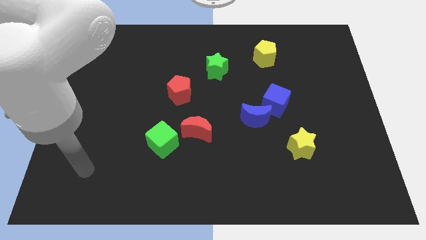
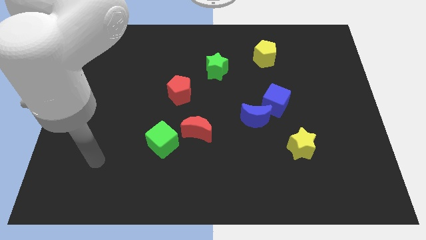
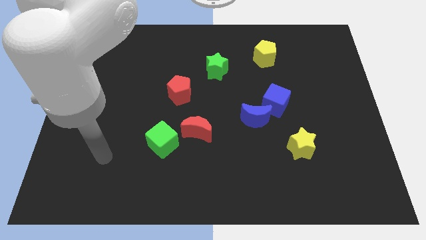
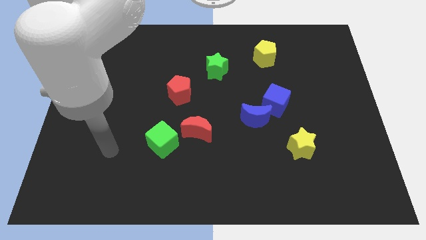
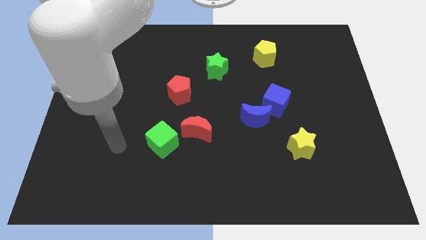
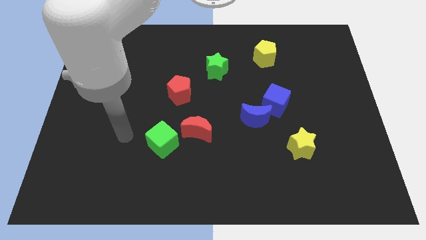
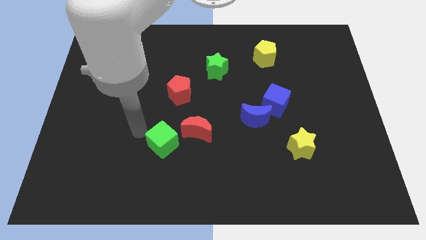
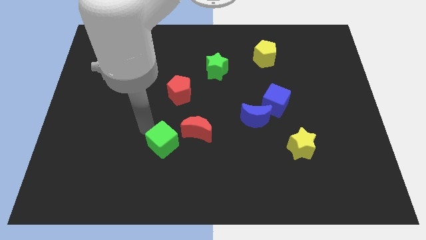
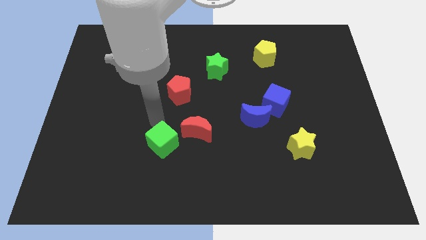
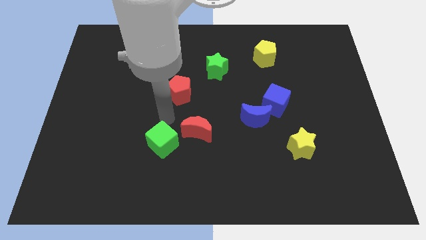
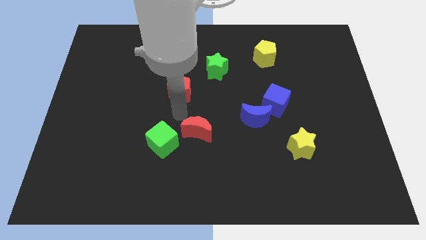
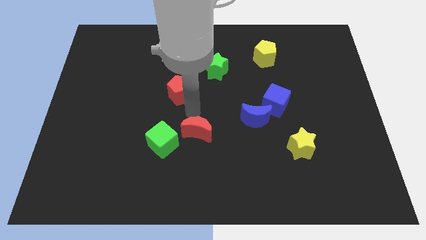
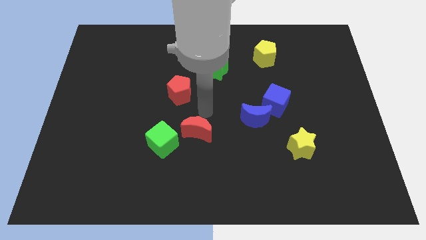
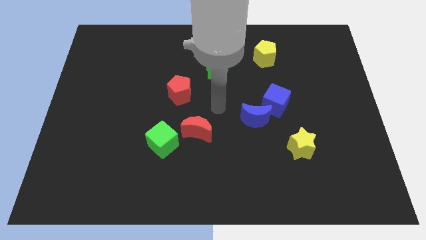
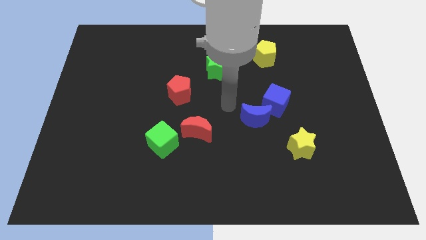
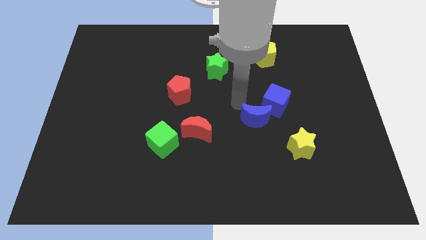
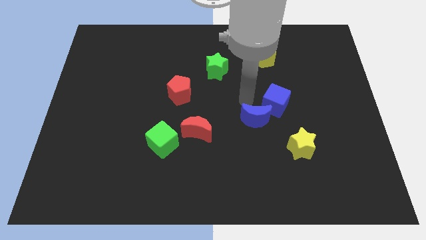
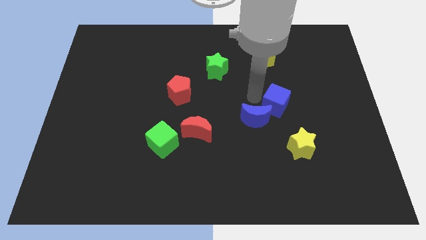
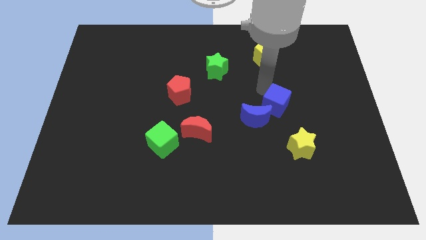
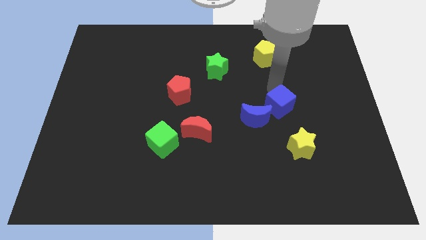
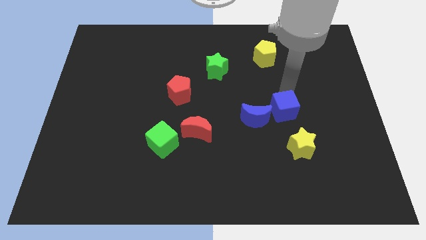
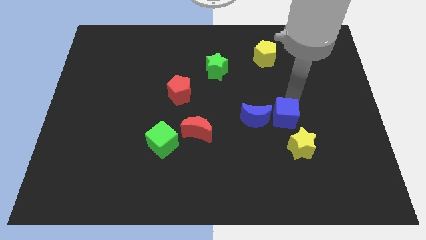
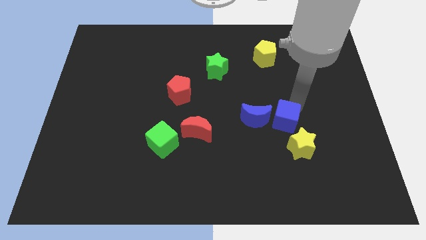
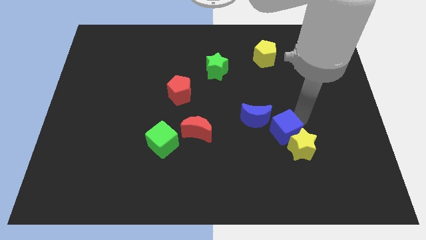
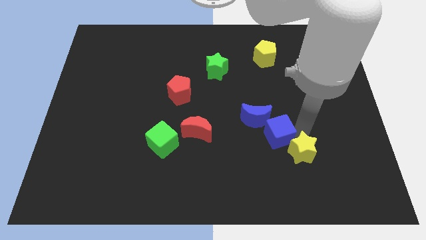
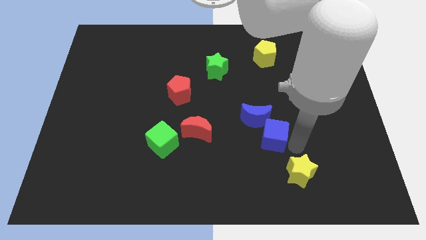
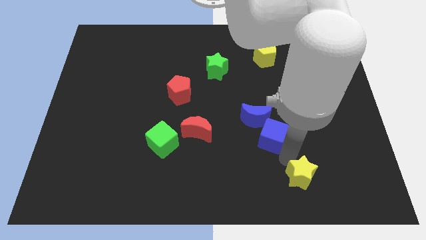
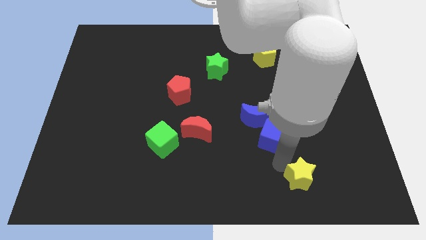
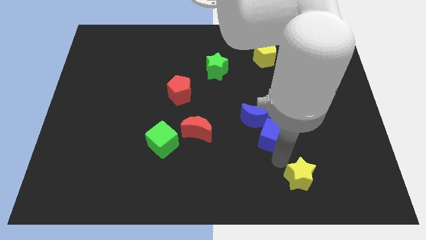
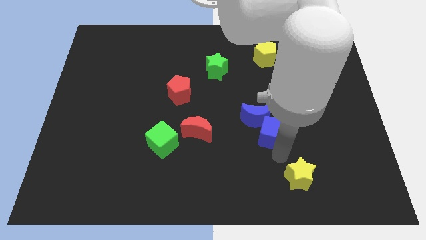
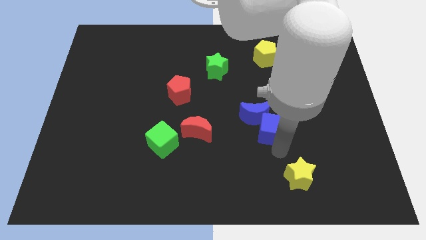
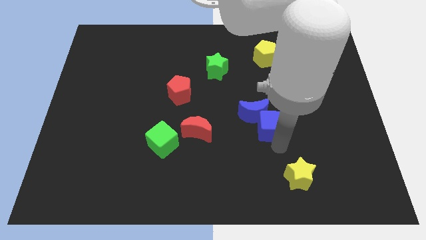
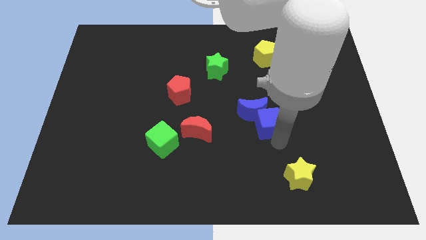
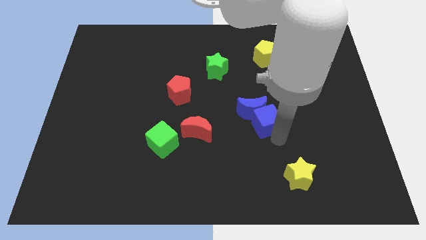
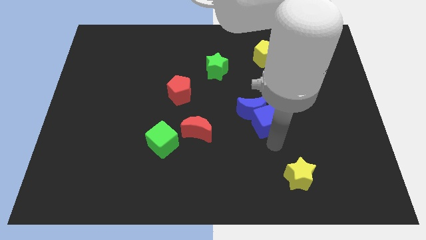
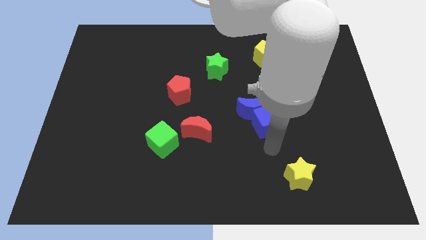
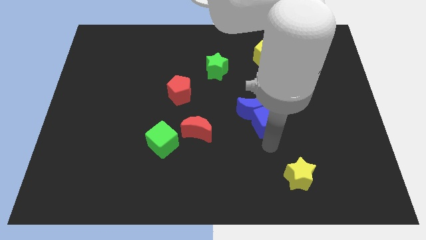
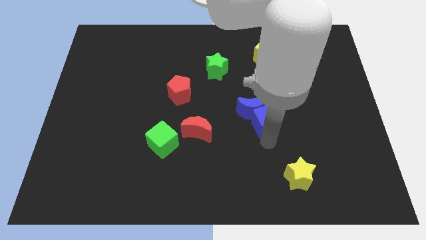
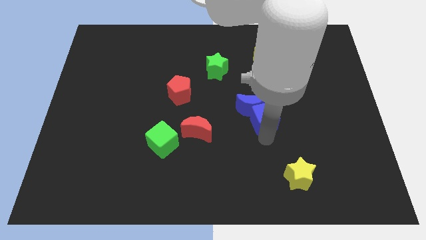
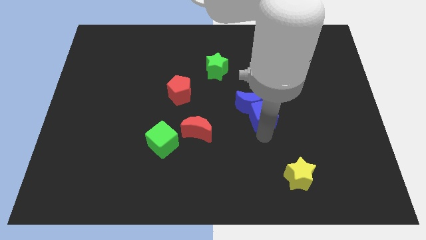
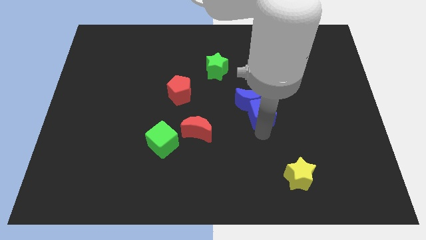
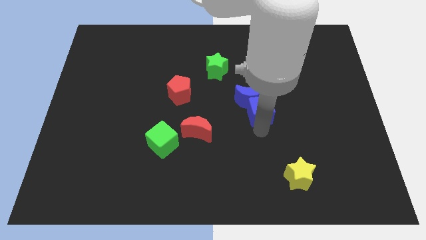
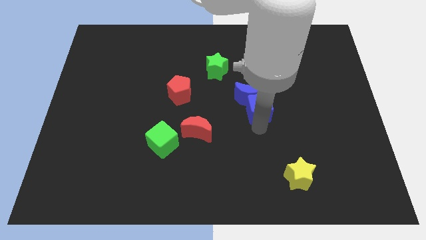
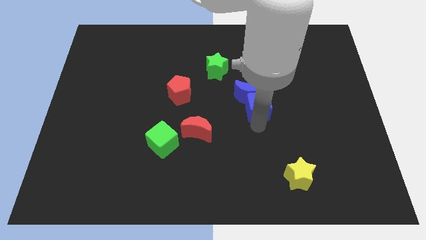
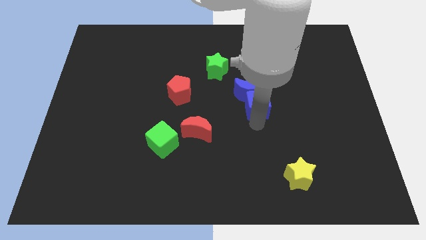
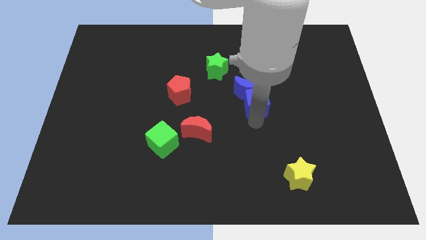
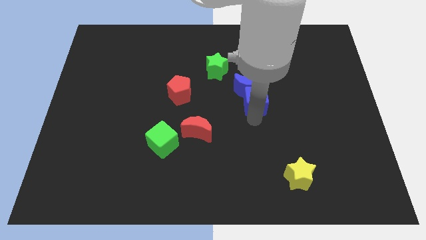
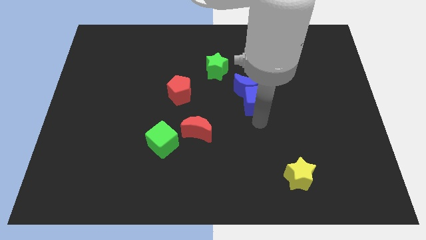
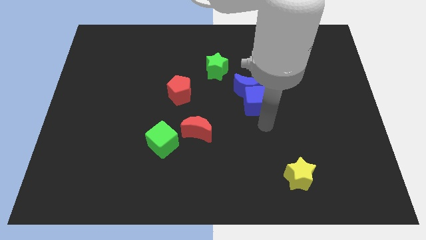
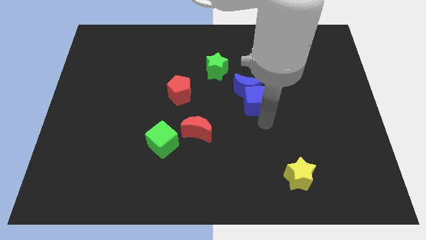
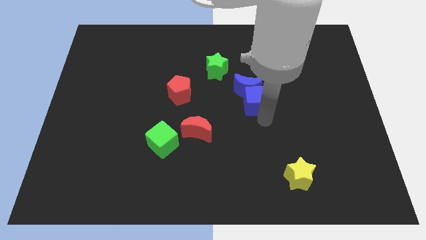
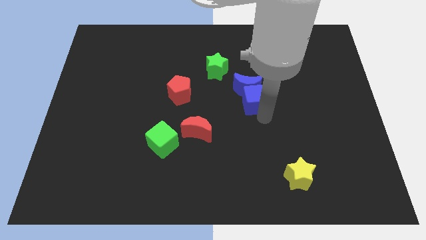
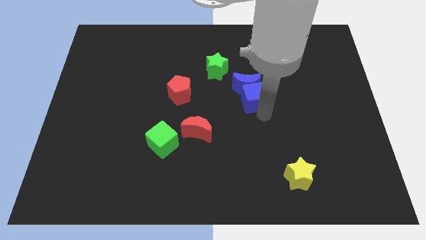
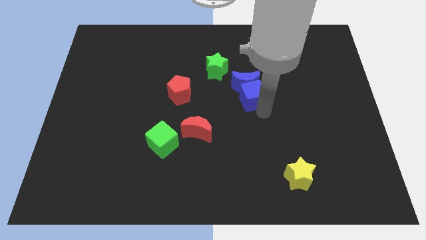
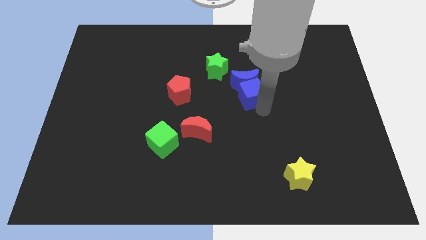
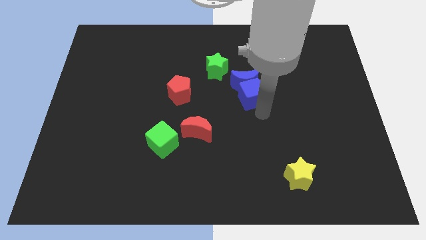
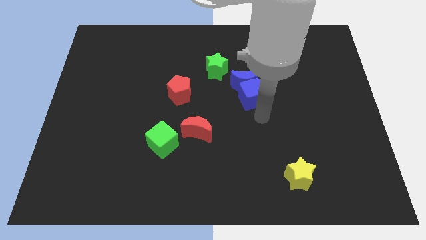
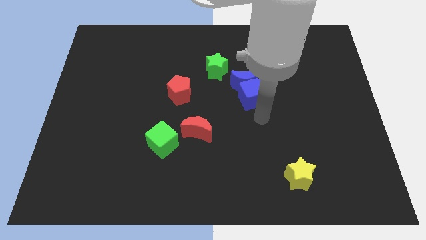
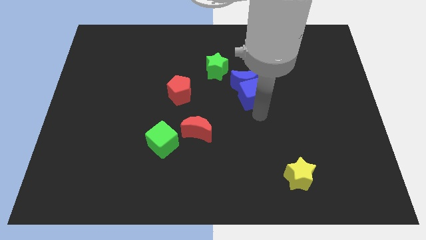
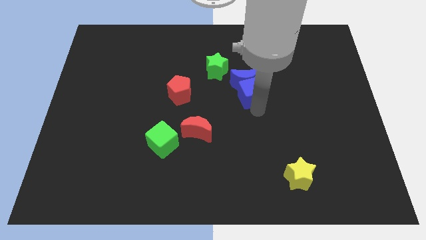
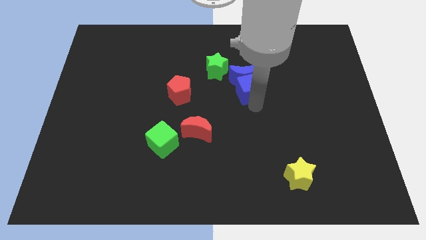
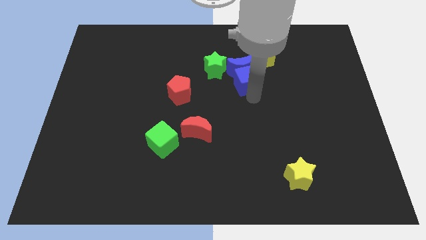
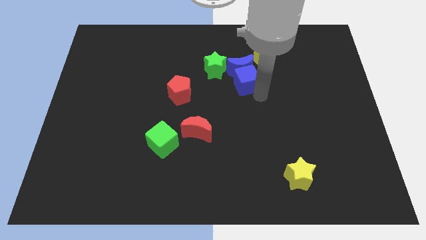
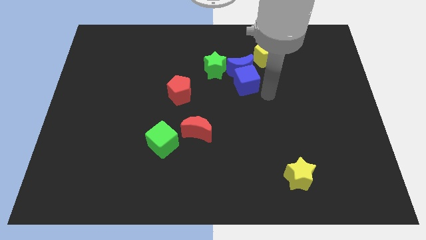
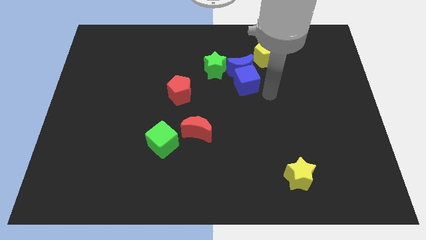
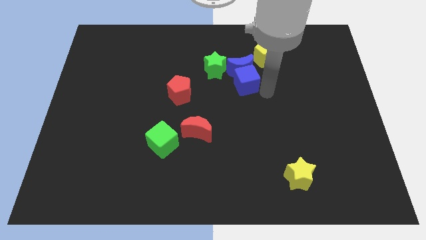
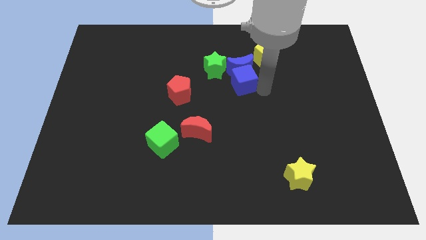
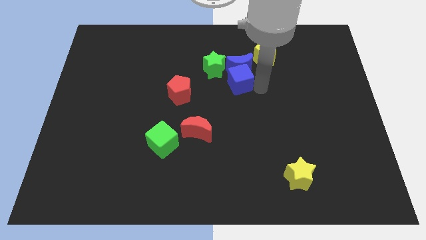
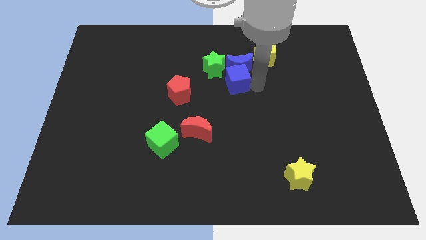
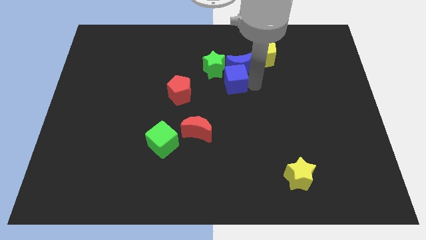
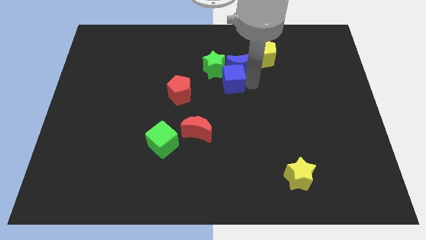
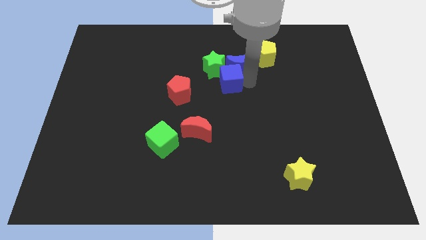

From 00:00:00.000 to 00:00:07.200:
slide the blue cube to the green star

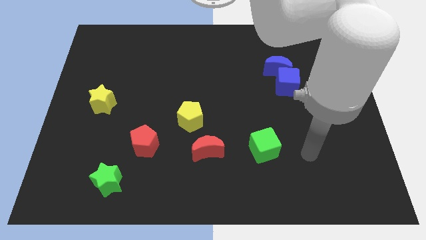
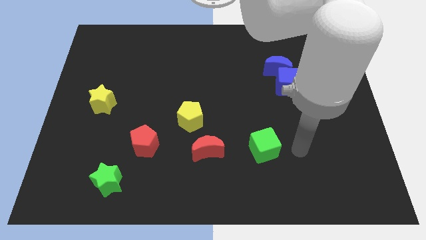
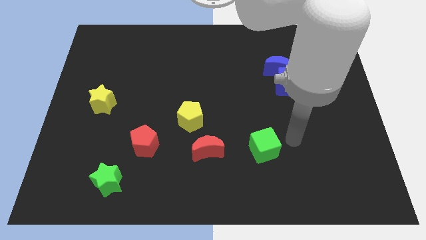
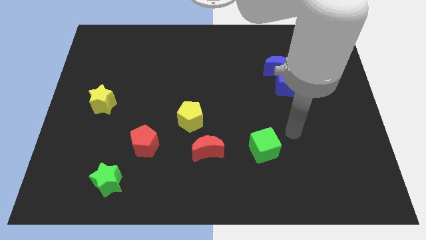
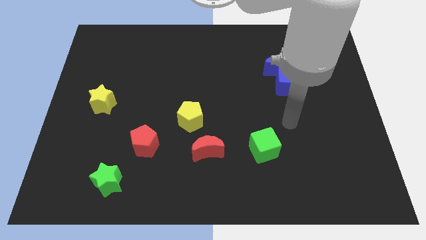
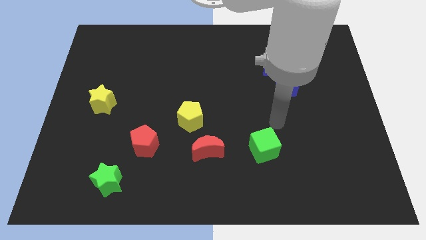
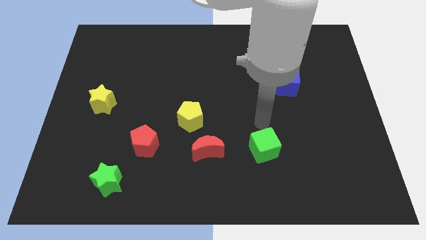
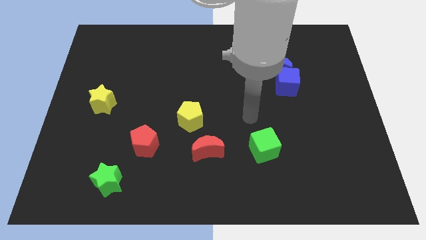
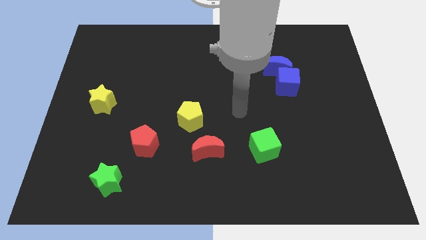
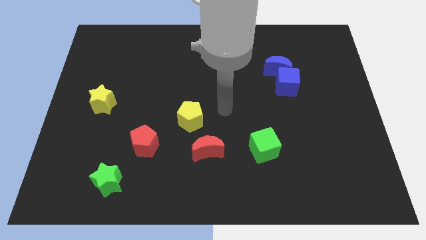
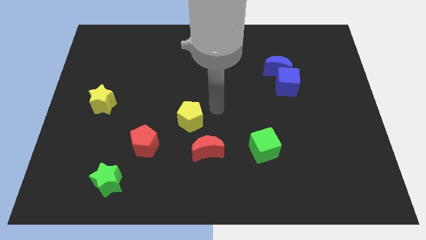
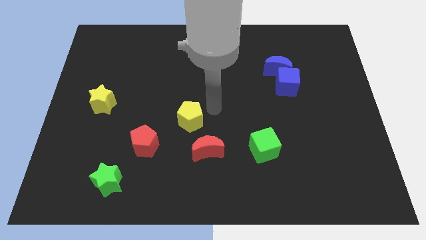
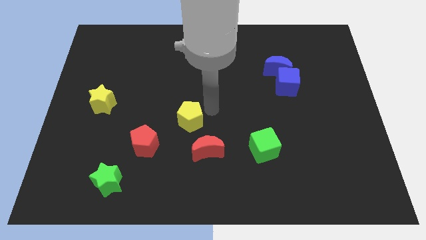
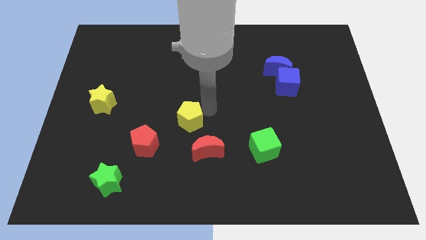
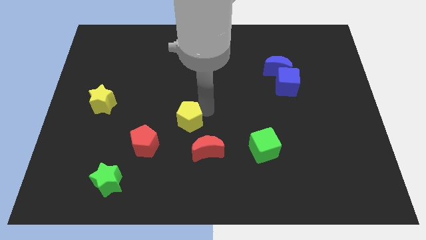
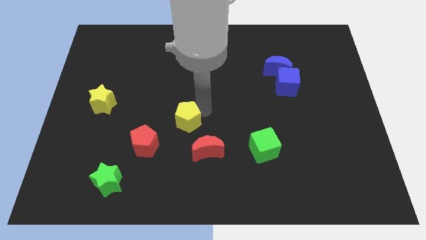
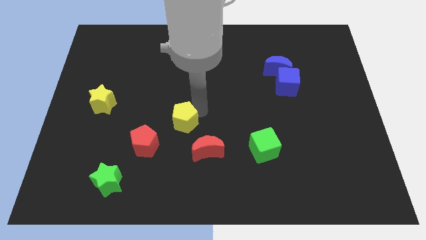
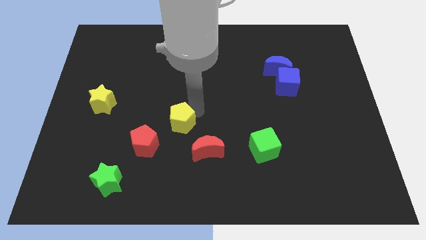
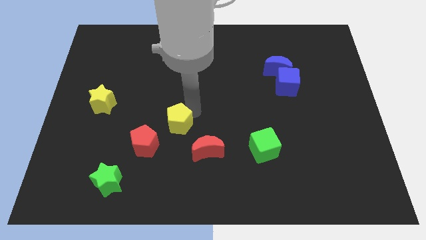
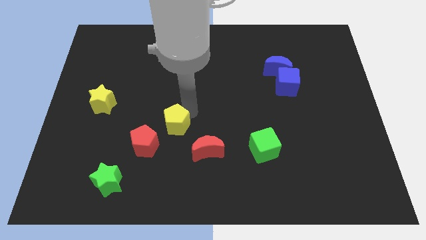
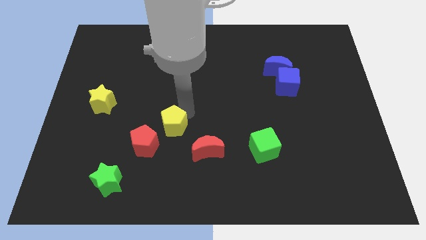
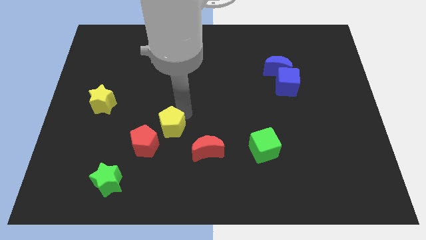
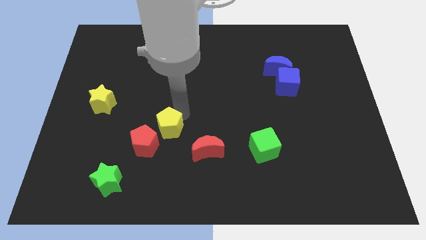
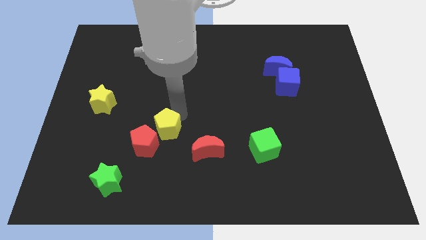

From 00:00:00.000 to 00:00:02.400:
slide the yellow pentagon to the red pentagon
